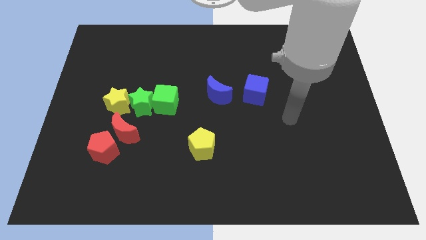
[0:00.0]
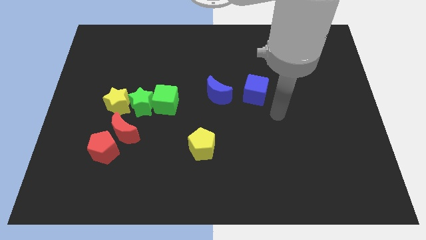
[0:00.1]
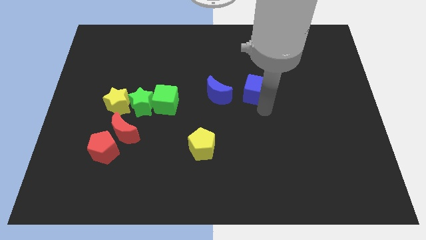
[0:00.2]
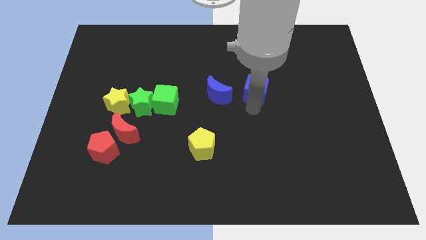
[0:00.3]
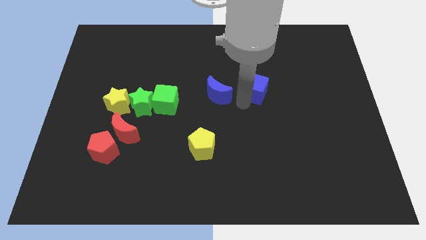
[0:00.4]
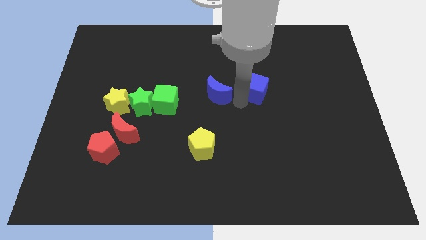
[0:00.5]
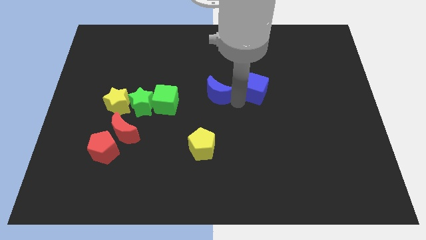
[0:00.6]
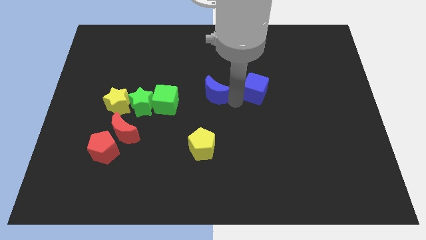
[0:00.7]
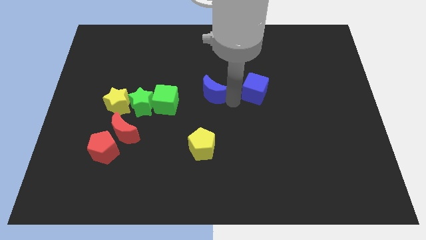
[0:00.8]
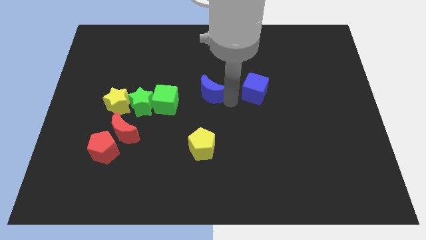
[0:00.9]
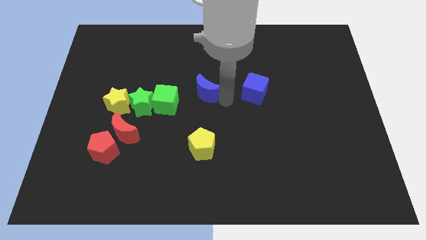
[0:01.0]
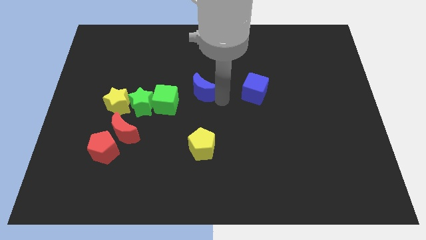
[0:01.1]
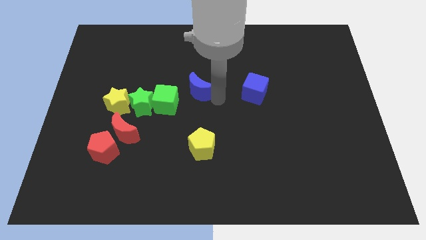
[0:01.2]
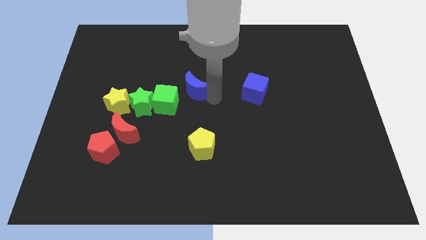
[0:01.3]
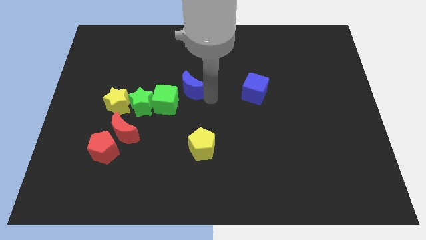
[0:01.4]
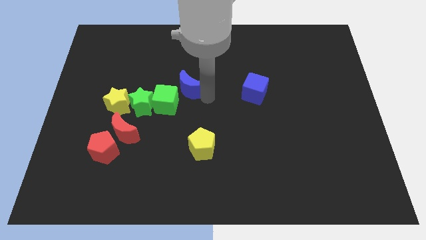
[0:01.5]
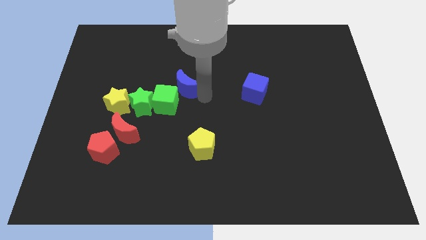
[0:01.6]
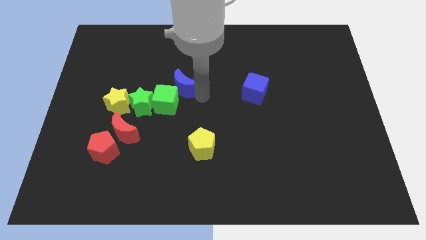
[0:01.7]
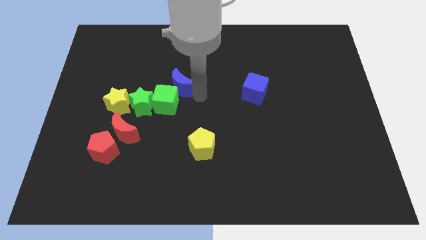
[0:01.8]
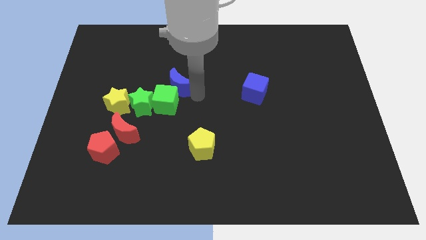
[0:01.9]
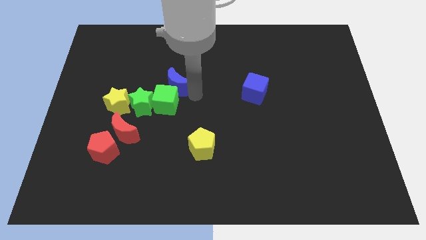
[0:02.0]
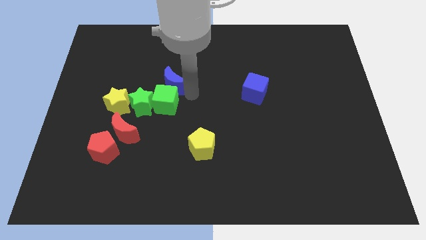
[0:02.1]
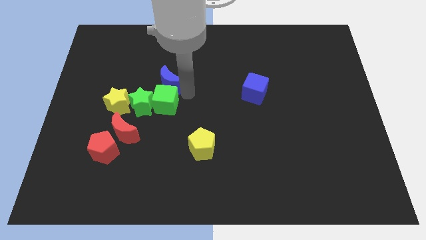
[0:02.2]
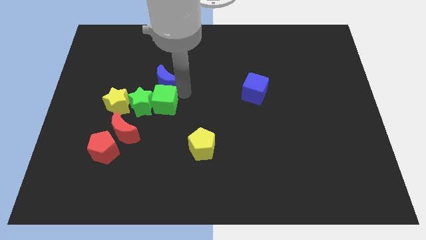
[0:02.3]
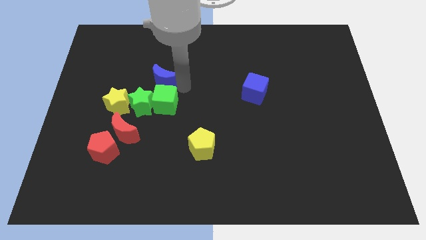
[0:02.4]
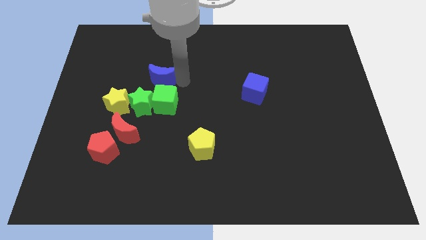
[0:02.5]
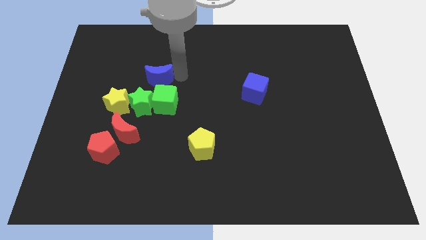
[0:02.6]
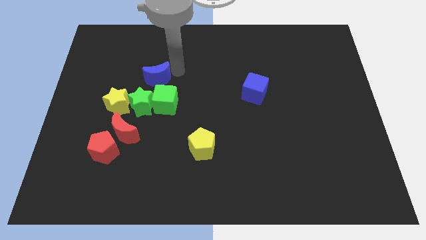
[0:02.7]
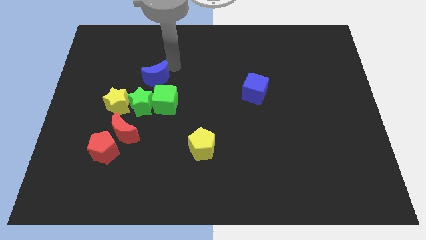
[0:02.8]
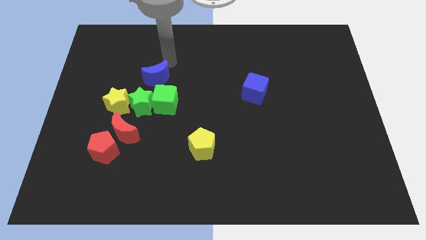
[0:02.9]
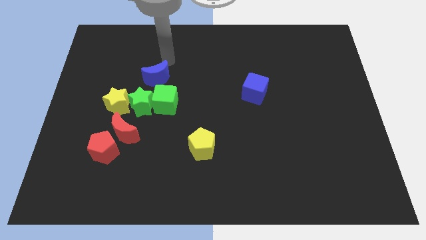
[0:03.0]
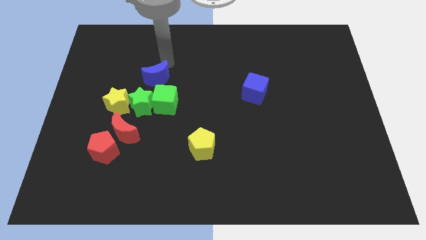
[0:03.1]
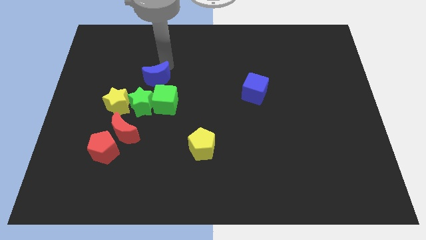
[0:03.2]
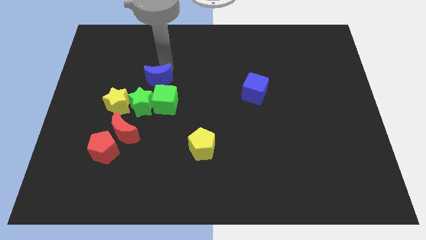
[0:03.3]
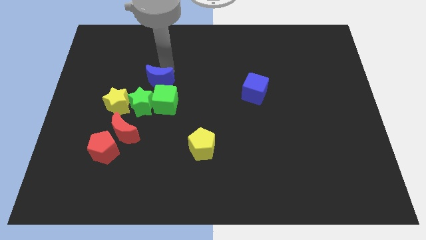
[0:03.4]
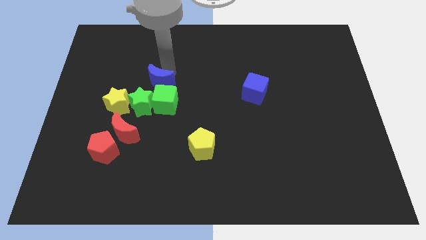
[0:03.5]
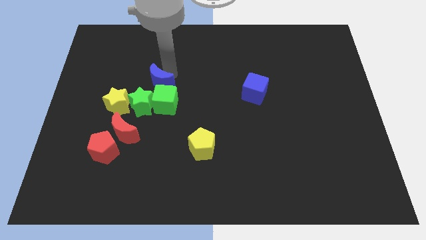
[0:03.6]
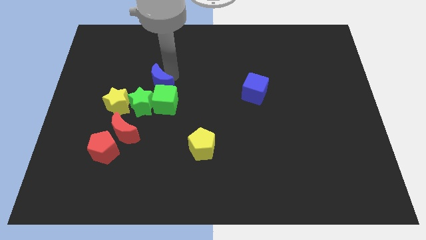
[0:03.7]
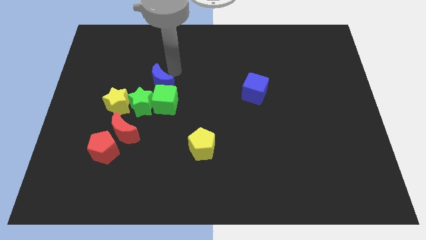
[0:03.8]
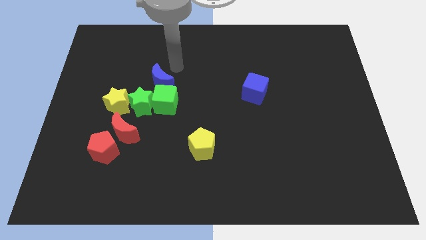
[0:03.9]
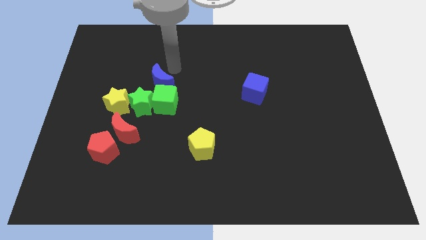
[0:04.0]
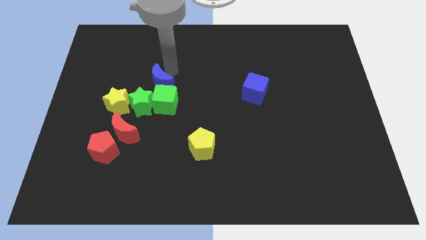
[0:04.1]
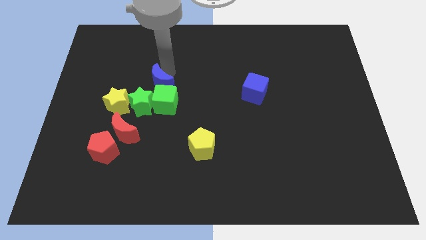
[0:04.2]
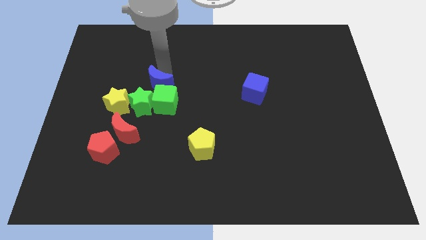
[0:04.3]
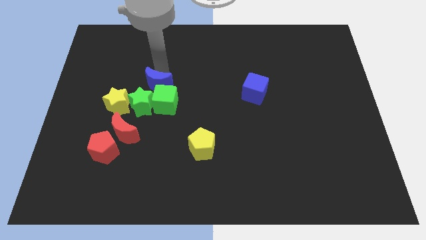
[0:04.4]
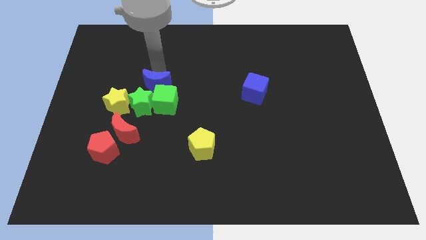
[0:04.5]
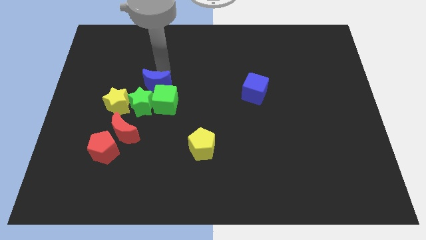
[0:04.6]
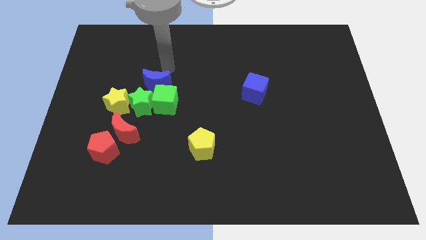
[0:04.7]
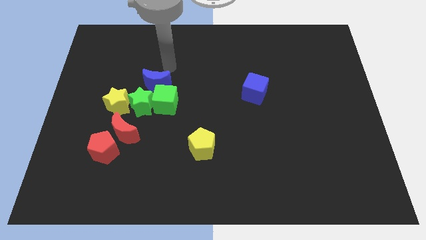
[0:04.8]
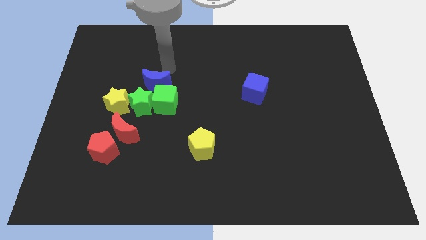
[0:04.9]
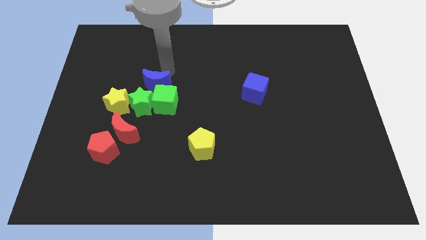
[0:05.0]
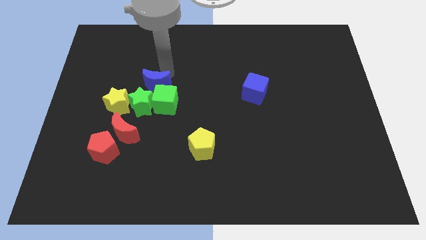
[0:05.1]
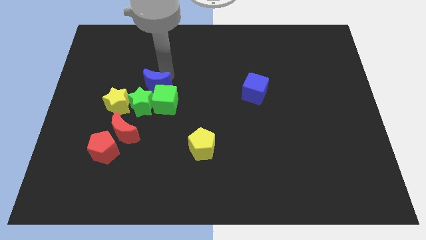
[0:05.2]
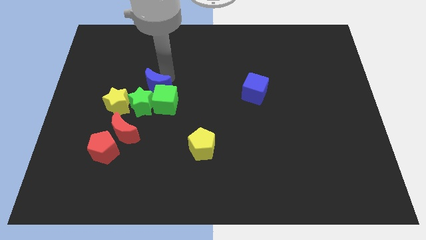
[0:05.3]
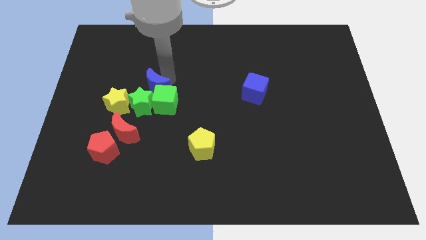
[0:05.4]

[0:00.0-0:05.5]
slide the blue moon to the green star

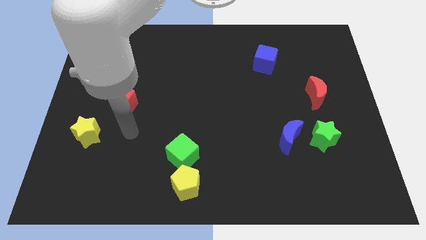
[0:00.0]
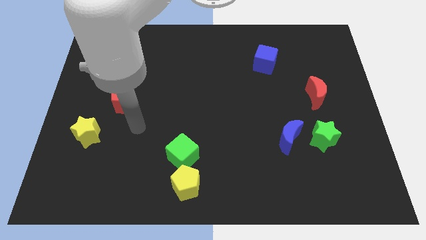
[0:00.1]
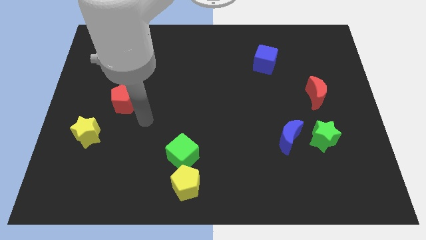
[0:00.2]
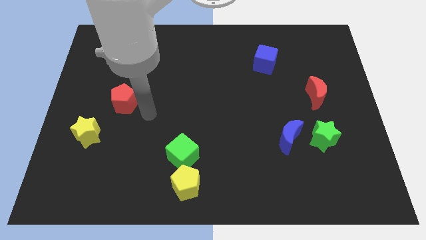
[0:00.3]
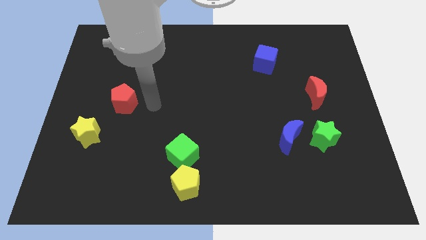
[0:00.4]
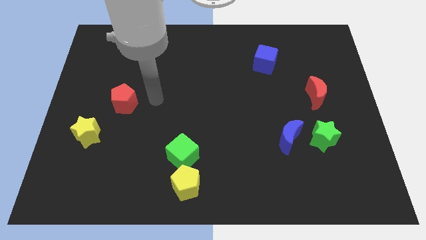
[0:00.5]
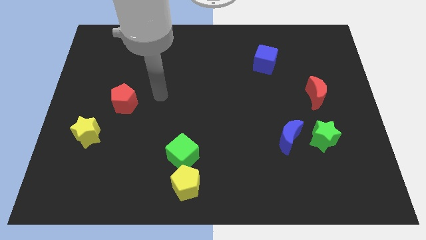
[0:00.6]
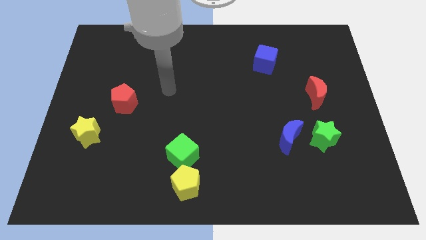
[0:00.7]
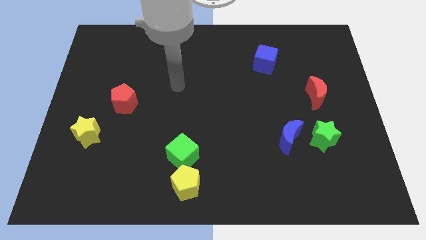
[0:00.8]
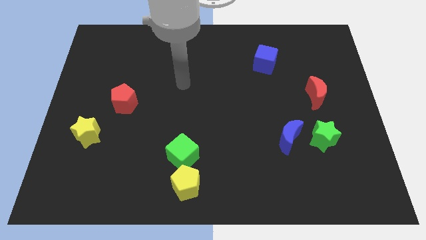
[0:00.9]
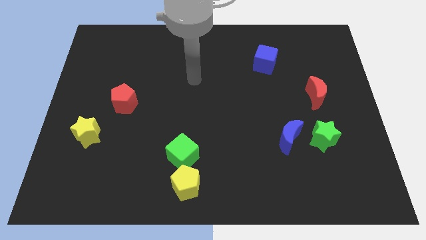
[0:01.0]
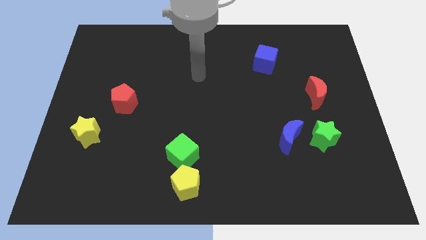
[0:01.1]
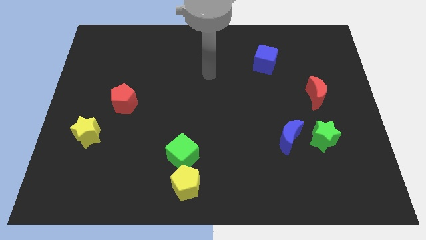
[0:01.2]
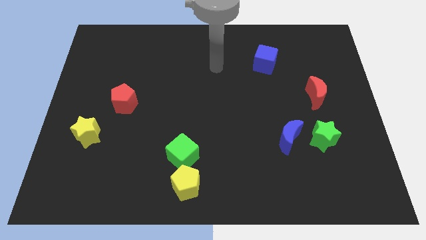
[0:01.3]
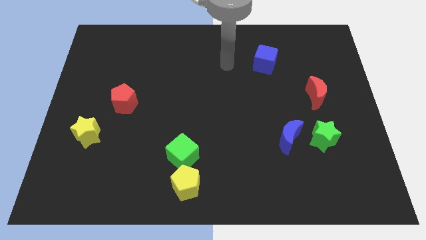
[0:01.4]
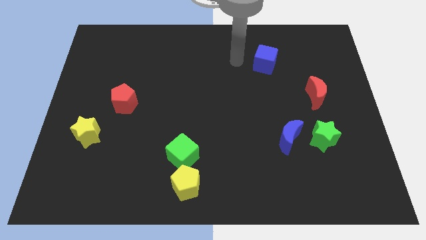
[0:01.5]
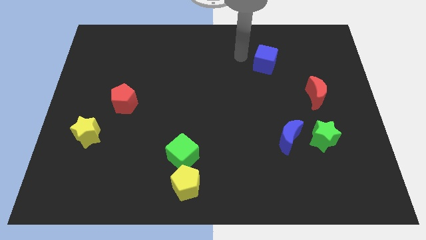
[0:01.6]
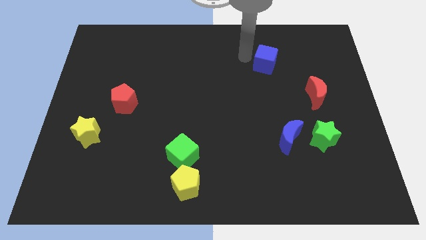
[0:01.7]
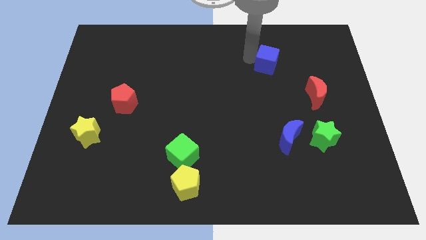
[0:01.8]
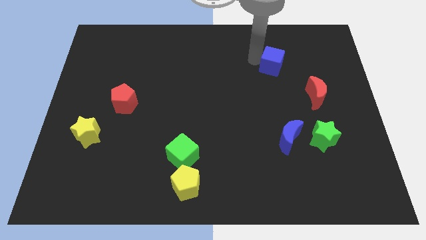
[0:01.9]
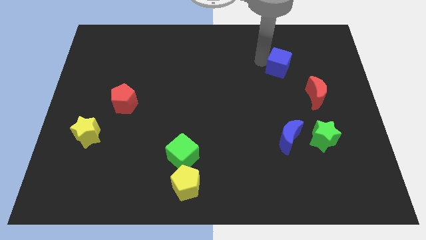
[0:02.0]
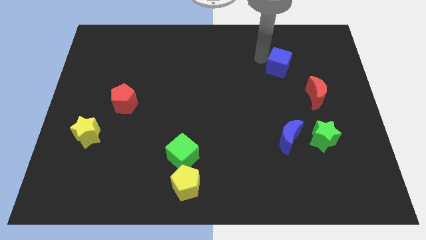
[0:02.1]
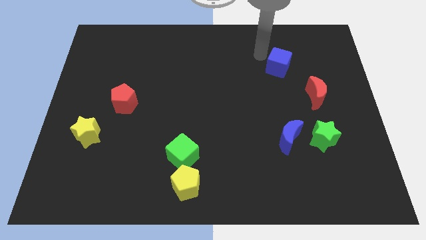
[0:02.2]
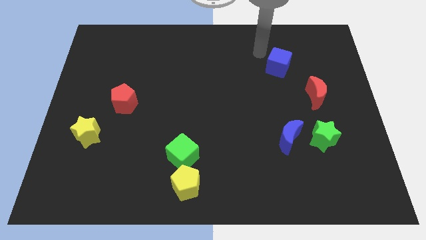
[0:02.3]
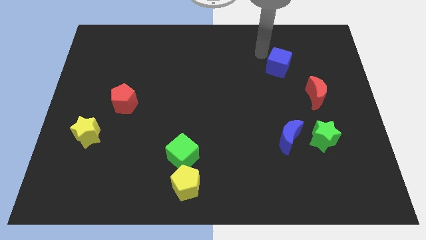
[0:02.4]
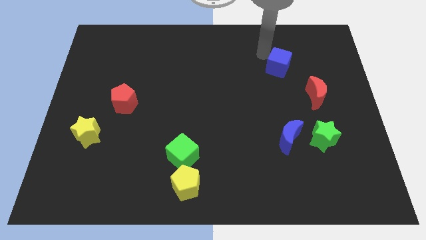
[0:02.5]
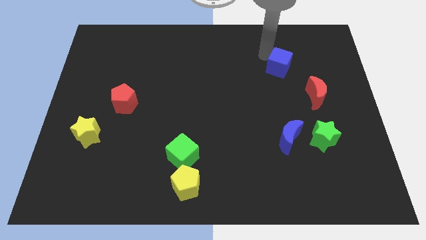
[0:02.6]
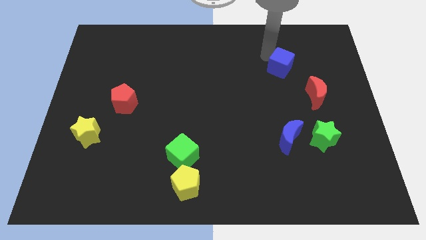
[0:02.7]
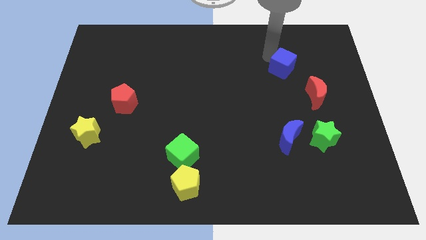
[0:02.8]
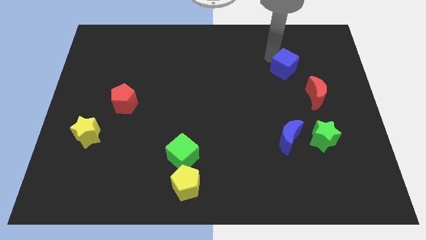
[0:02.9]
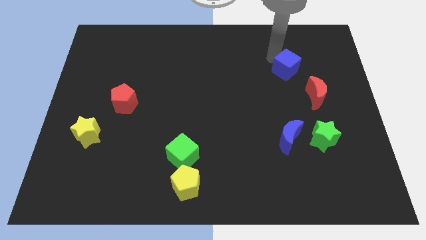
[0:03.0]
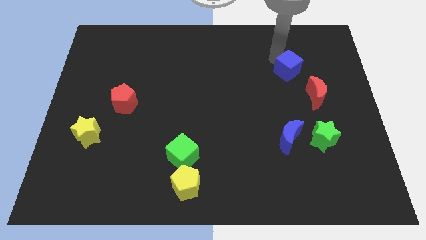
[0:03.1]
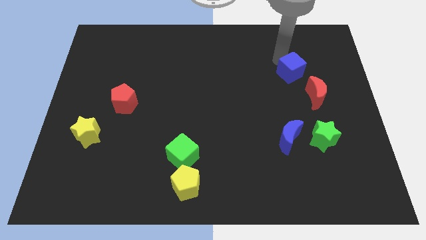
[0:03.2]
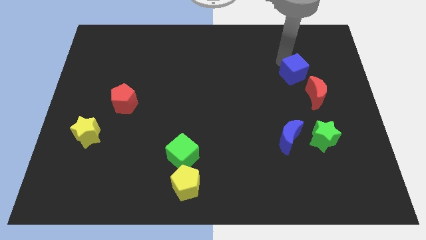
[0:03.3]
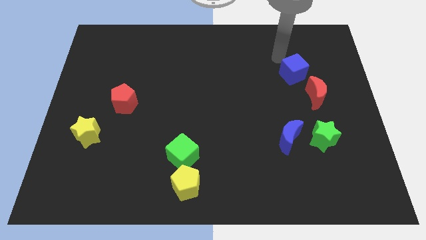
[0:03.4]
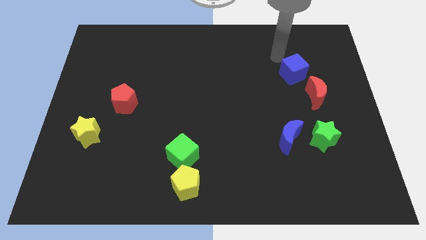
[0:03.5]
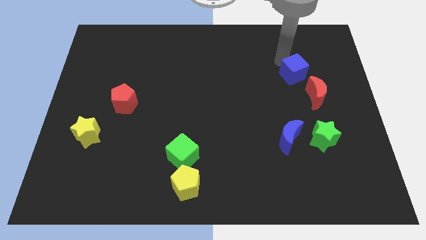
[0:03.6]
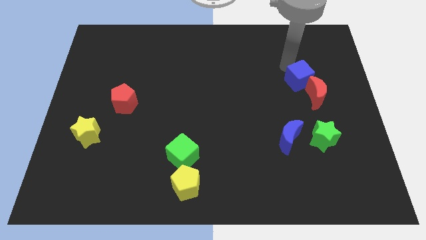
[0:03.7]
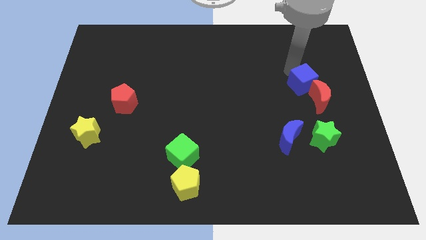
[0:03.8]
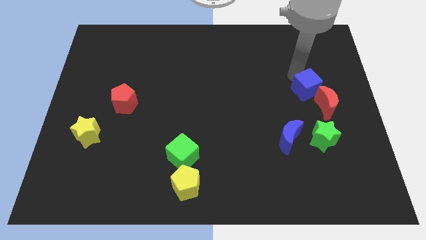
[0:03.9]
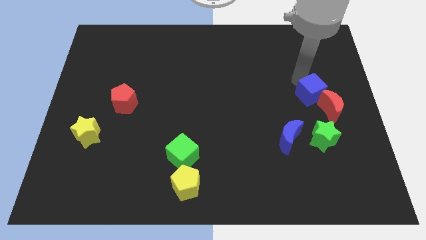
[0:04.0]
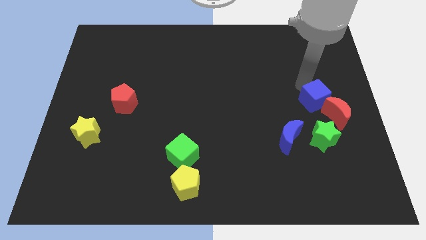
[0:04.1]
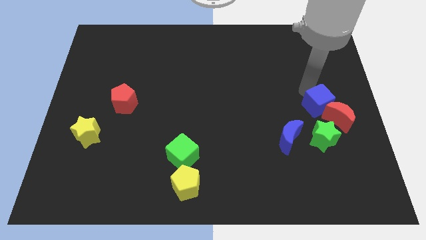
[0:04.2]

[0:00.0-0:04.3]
slide the blue cube next to the red moon
